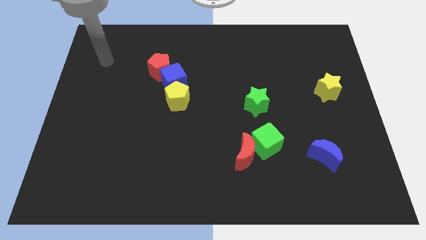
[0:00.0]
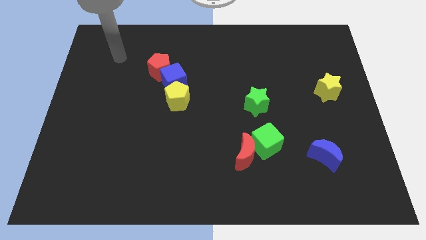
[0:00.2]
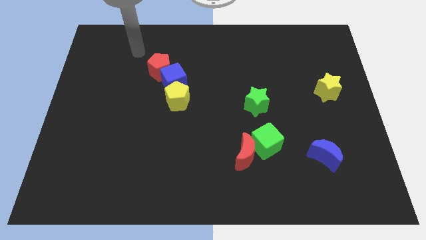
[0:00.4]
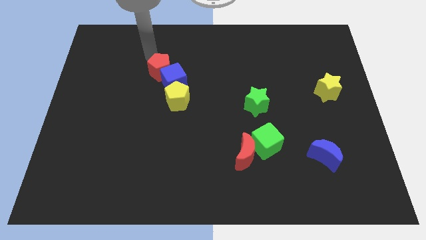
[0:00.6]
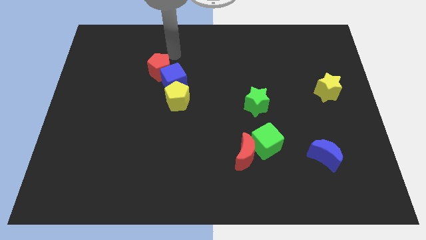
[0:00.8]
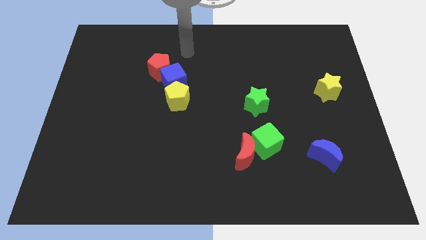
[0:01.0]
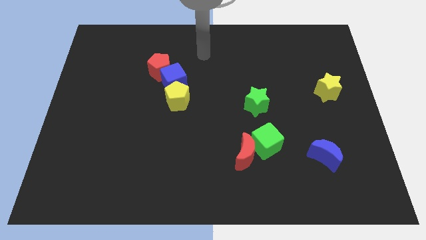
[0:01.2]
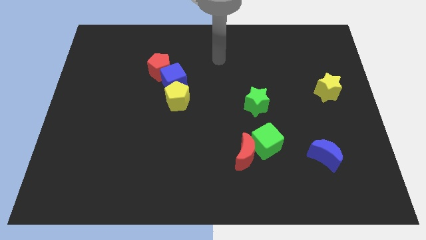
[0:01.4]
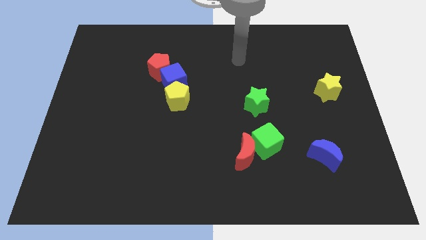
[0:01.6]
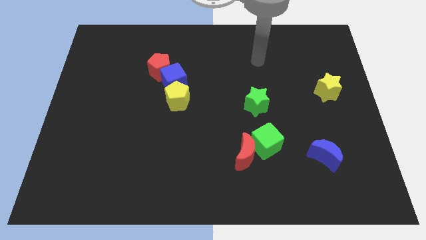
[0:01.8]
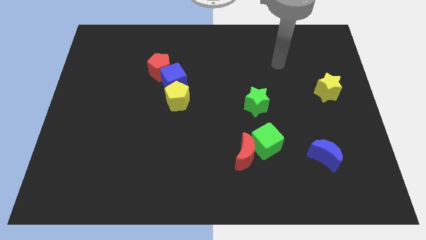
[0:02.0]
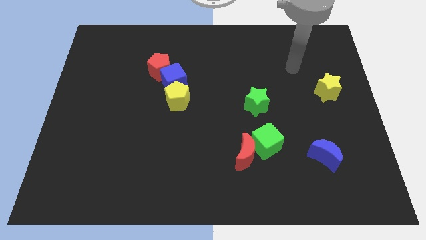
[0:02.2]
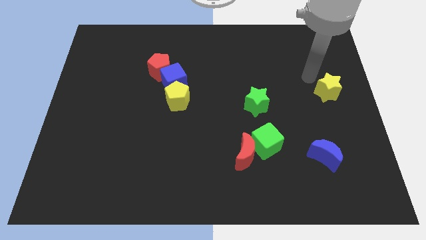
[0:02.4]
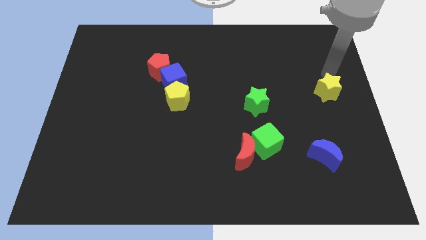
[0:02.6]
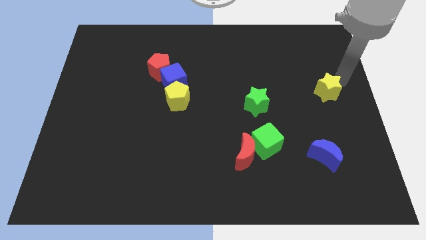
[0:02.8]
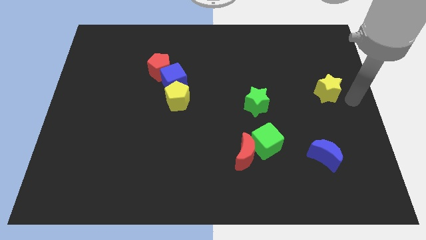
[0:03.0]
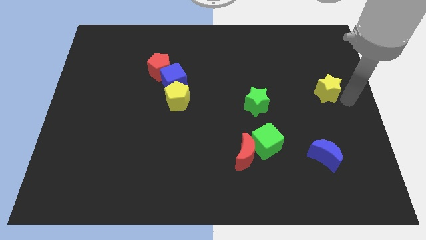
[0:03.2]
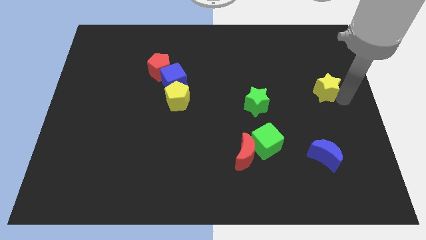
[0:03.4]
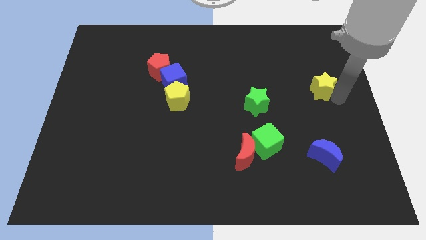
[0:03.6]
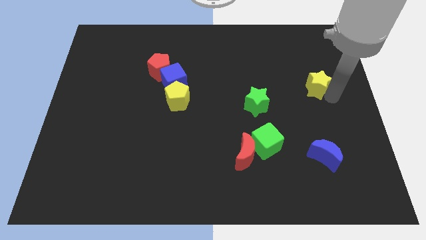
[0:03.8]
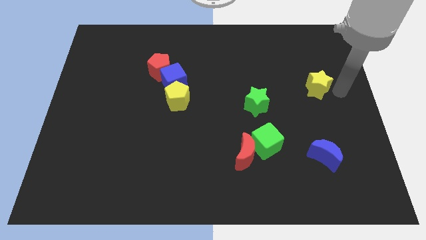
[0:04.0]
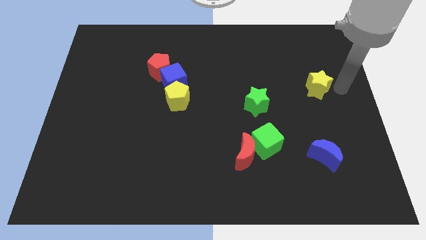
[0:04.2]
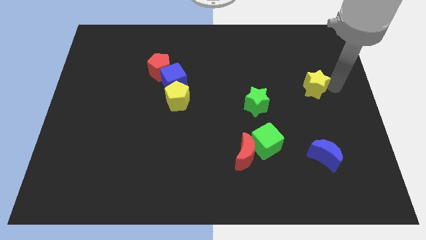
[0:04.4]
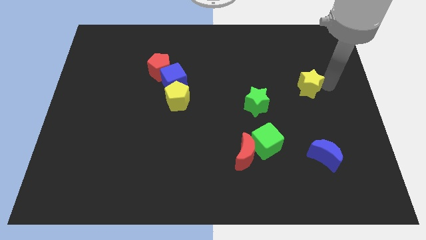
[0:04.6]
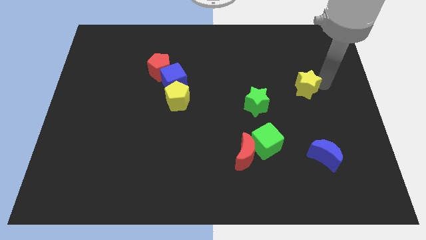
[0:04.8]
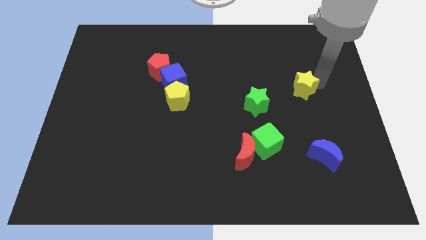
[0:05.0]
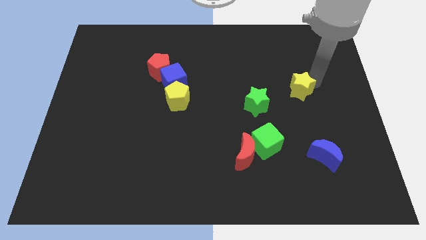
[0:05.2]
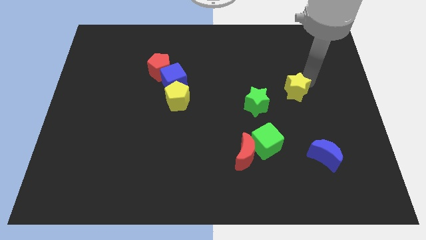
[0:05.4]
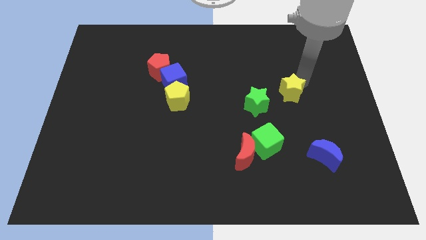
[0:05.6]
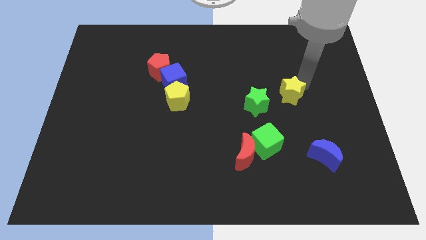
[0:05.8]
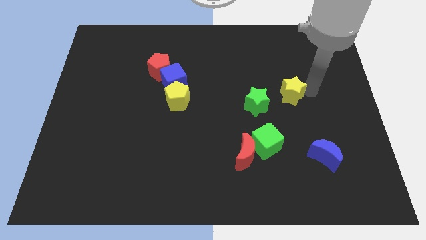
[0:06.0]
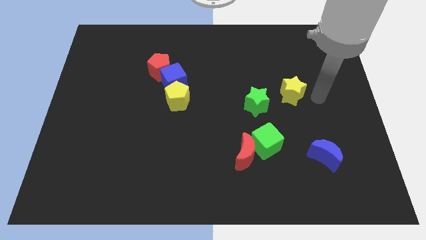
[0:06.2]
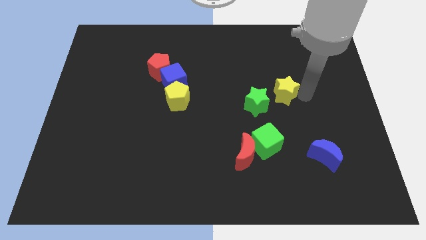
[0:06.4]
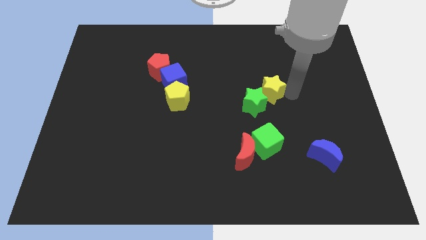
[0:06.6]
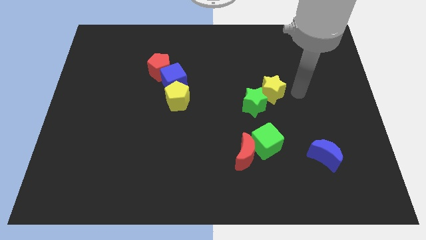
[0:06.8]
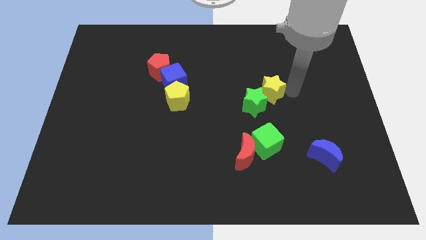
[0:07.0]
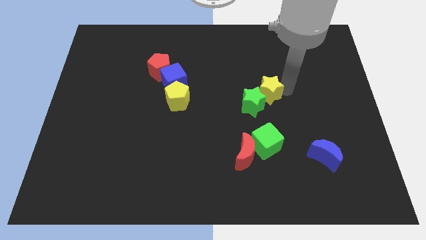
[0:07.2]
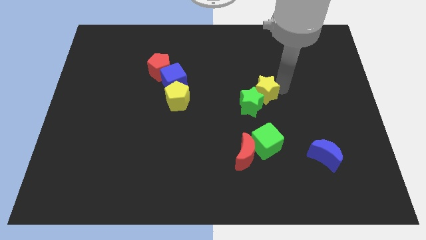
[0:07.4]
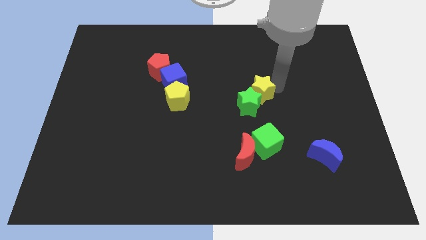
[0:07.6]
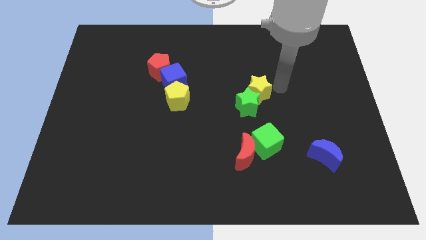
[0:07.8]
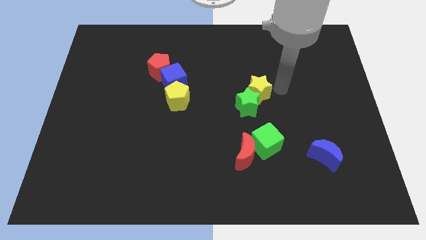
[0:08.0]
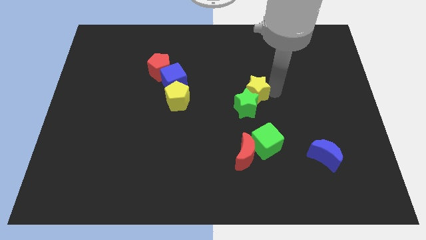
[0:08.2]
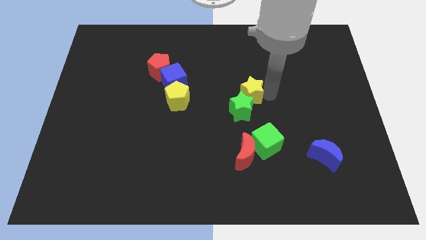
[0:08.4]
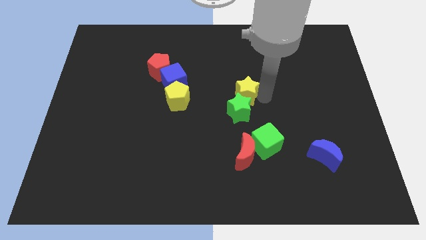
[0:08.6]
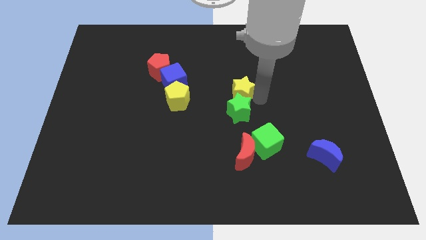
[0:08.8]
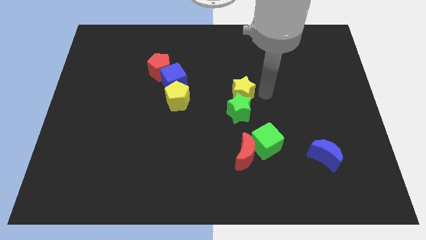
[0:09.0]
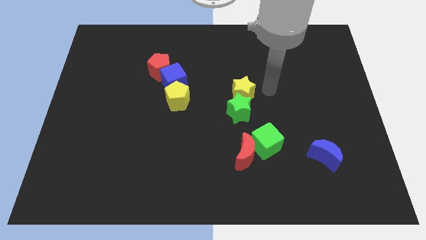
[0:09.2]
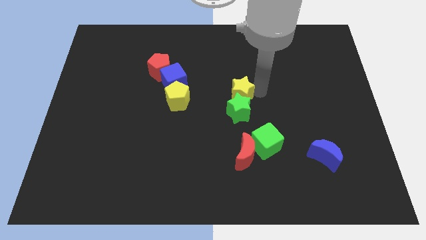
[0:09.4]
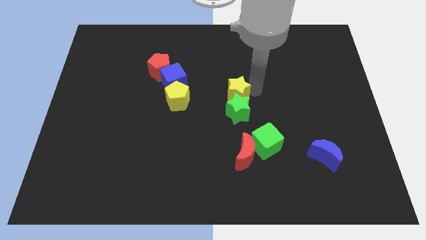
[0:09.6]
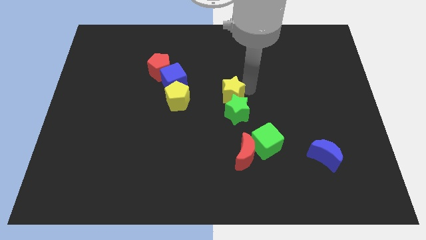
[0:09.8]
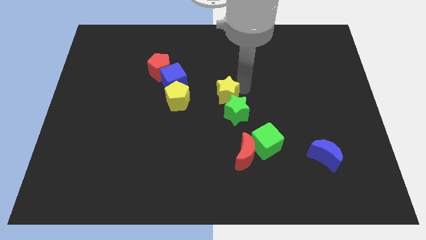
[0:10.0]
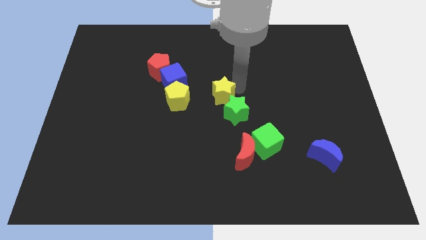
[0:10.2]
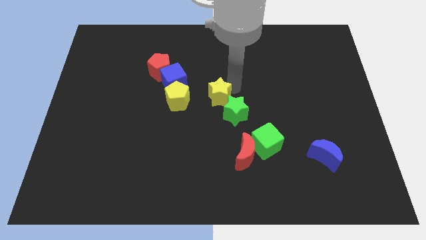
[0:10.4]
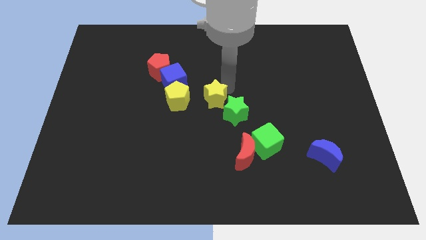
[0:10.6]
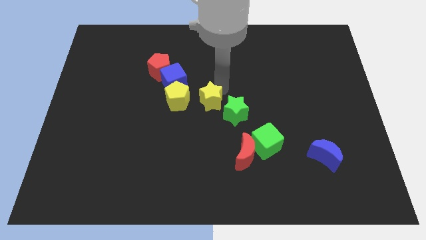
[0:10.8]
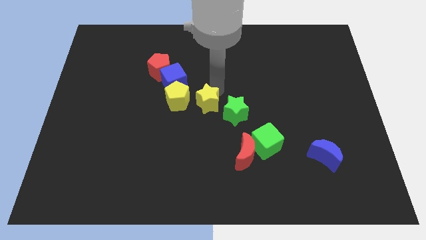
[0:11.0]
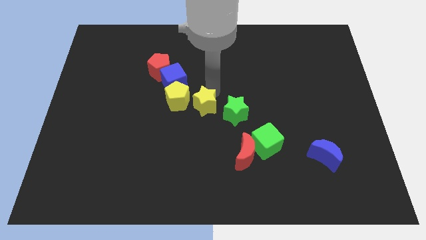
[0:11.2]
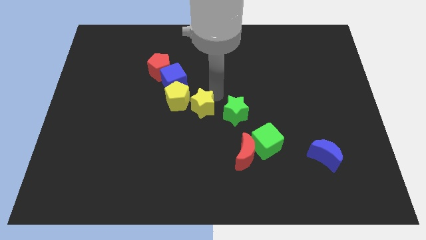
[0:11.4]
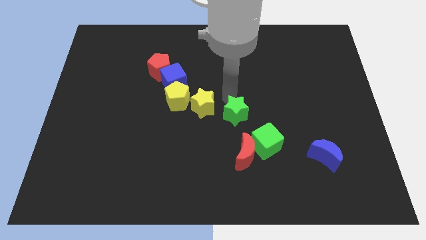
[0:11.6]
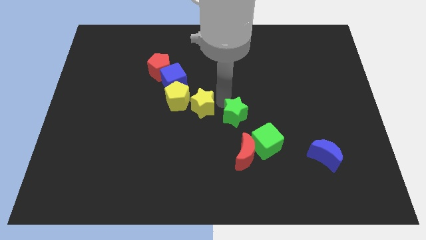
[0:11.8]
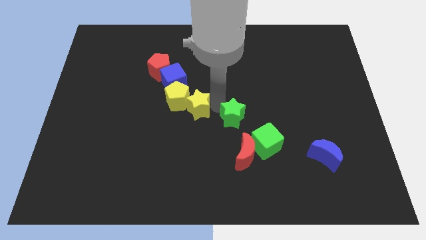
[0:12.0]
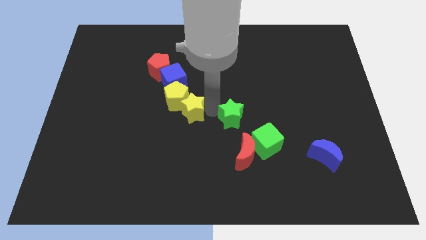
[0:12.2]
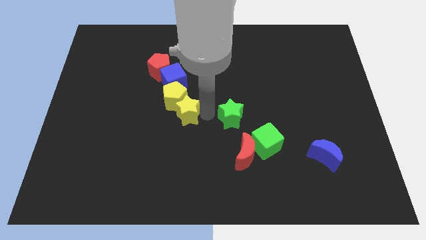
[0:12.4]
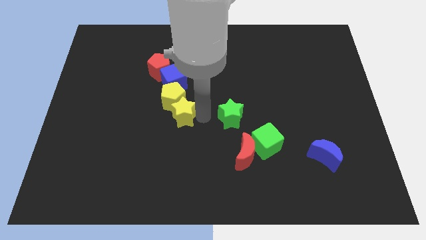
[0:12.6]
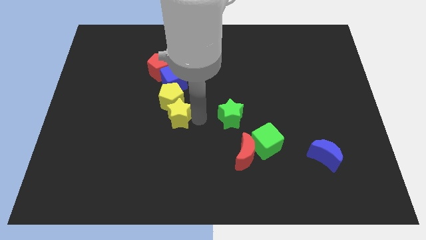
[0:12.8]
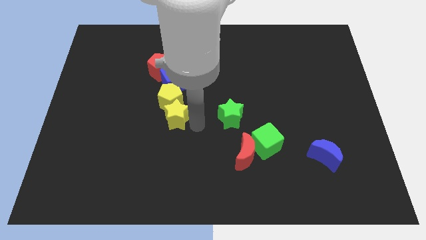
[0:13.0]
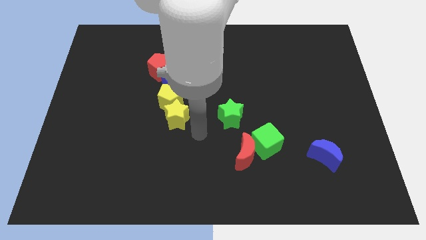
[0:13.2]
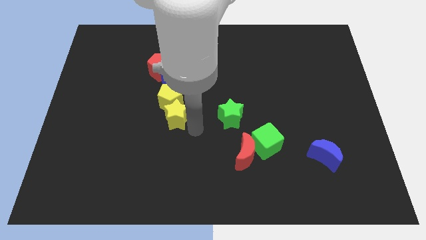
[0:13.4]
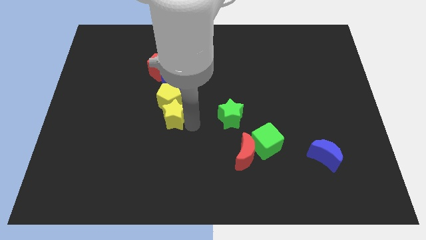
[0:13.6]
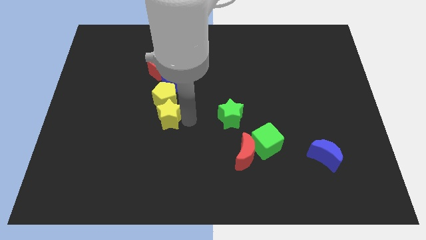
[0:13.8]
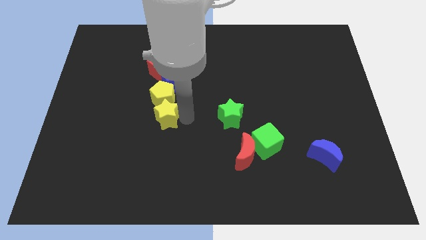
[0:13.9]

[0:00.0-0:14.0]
push the yellow star to the bottom of the red pentagon
